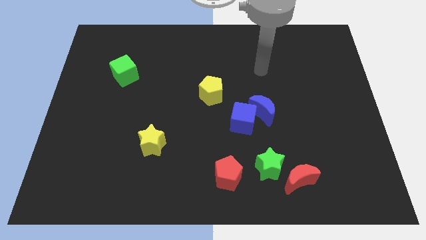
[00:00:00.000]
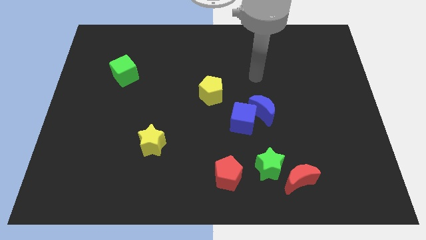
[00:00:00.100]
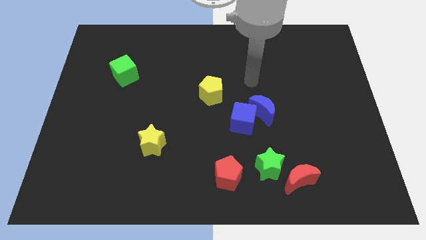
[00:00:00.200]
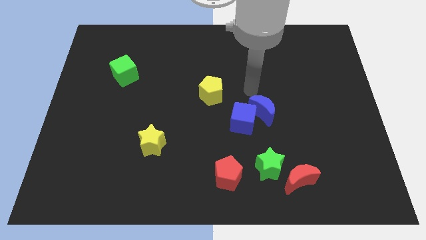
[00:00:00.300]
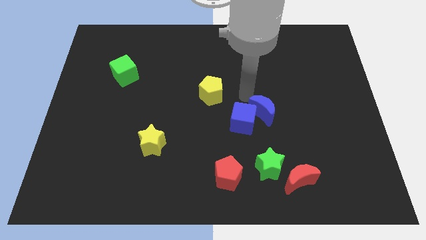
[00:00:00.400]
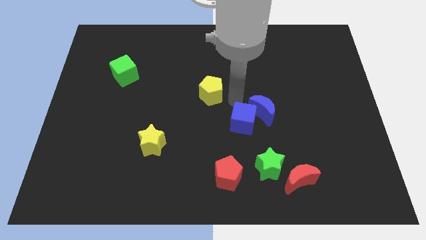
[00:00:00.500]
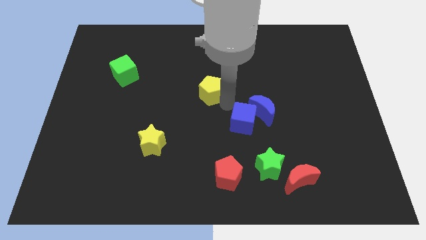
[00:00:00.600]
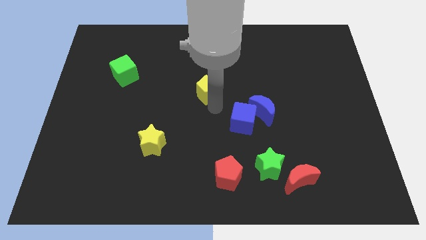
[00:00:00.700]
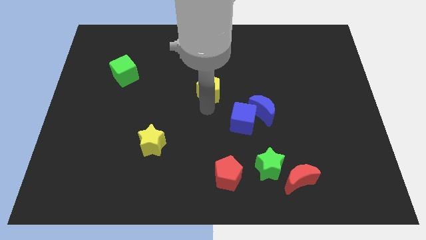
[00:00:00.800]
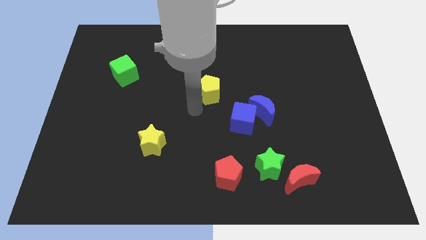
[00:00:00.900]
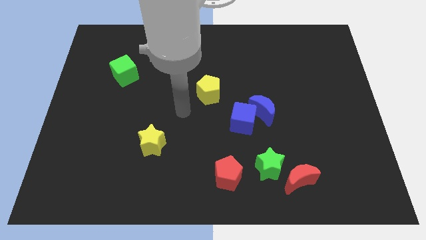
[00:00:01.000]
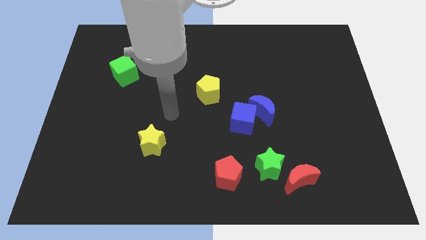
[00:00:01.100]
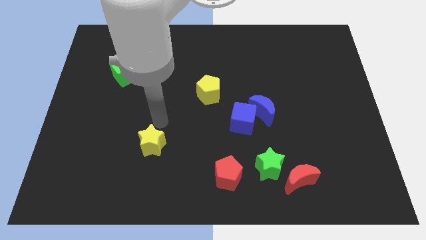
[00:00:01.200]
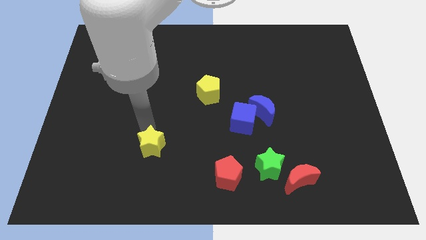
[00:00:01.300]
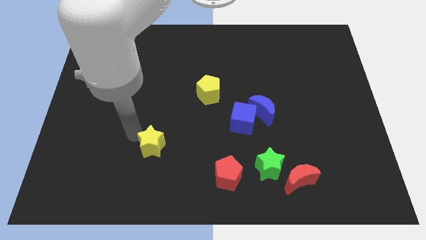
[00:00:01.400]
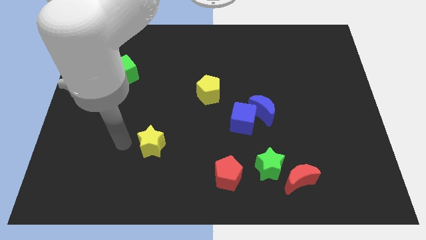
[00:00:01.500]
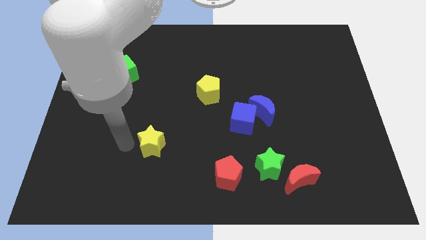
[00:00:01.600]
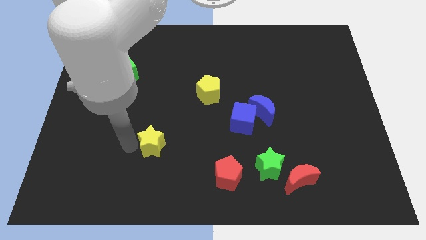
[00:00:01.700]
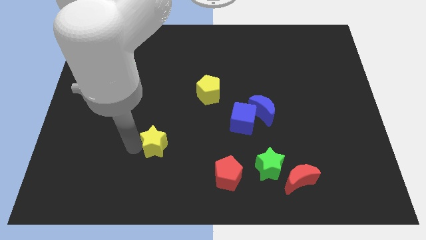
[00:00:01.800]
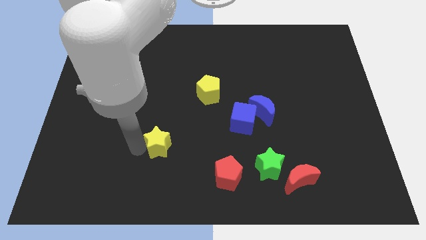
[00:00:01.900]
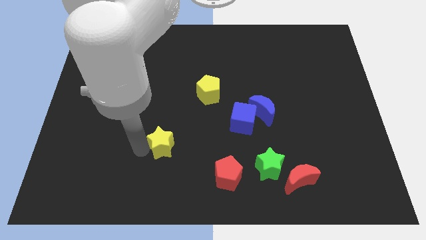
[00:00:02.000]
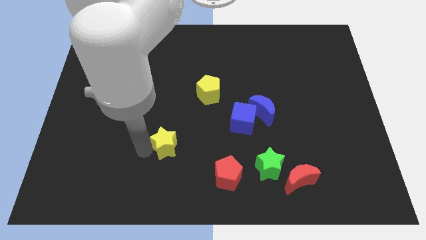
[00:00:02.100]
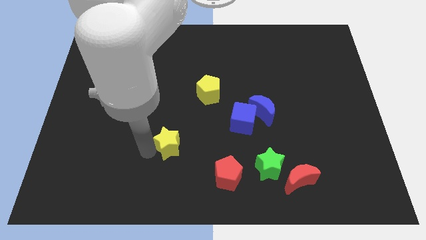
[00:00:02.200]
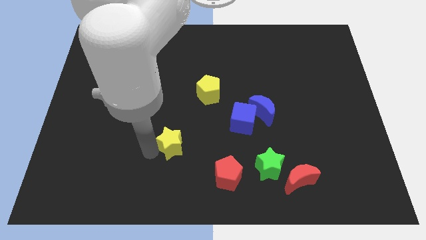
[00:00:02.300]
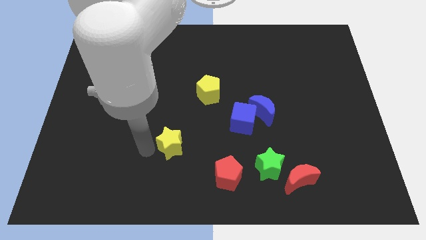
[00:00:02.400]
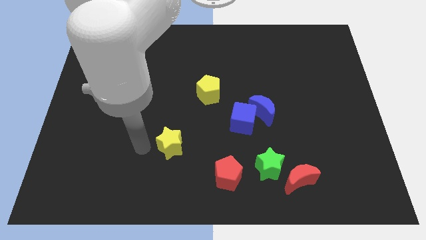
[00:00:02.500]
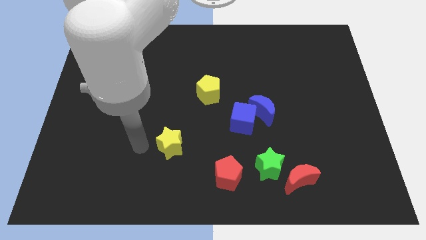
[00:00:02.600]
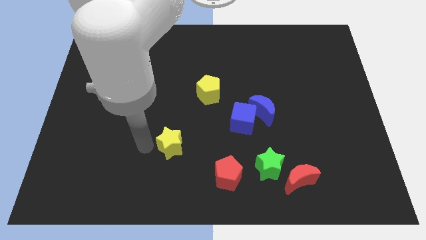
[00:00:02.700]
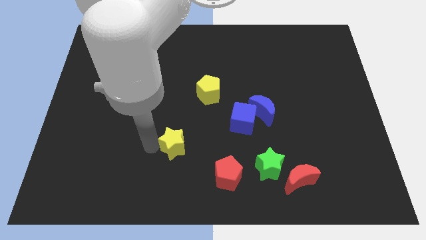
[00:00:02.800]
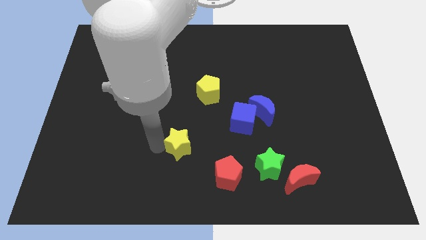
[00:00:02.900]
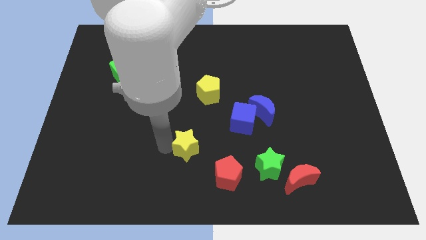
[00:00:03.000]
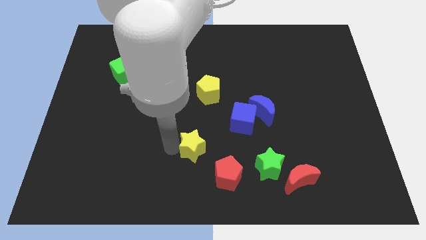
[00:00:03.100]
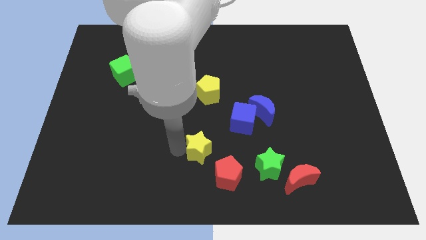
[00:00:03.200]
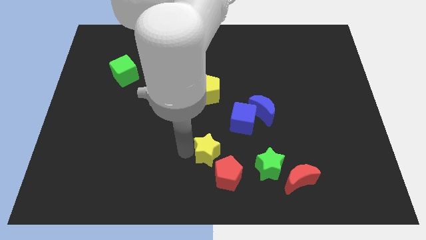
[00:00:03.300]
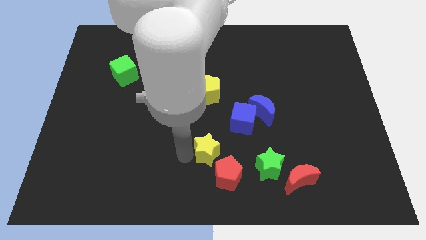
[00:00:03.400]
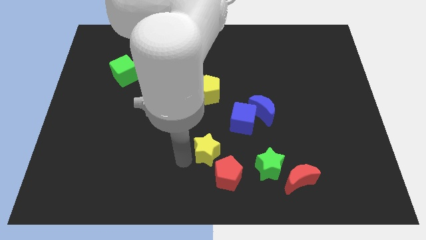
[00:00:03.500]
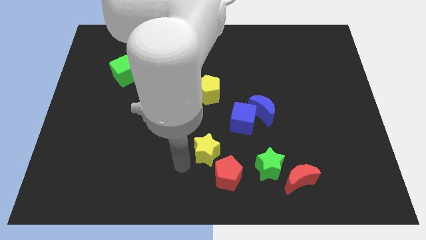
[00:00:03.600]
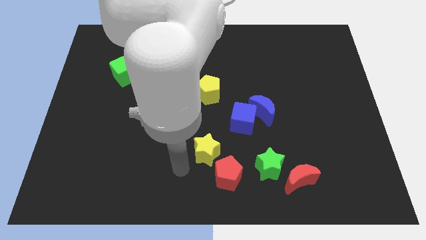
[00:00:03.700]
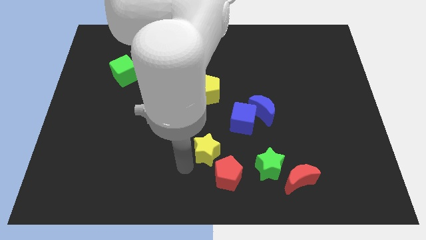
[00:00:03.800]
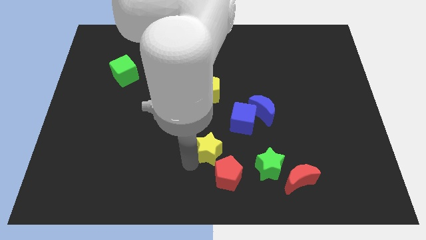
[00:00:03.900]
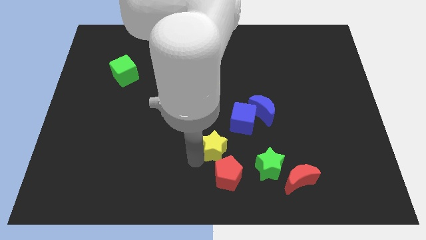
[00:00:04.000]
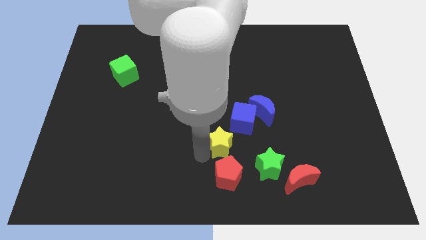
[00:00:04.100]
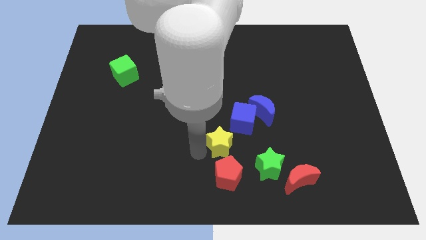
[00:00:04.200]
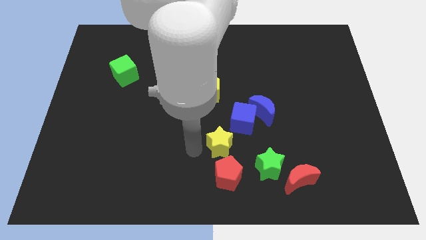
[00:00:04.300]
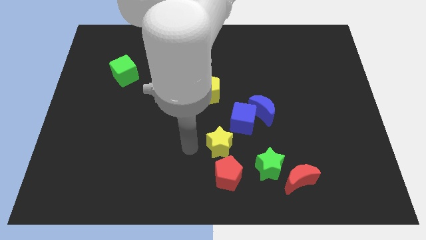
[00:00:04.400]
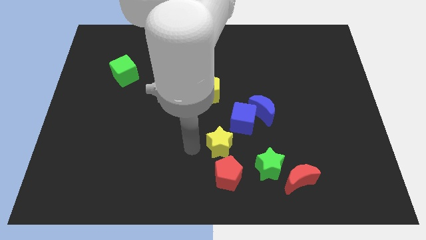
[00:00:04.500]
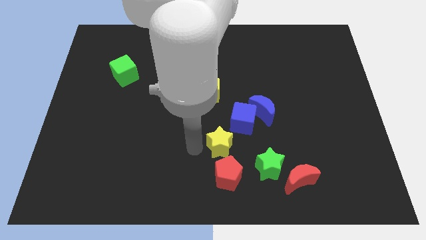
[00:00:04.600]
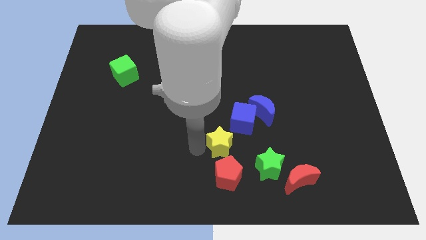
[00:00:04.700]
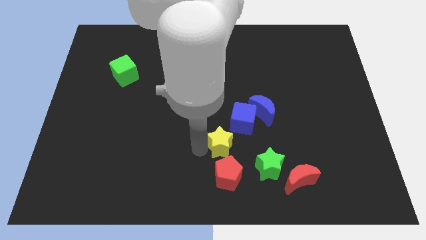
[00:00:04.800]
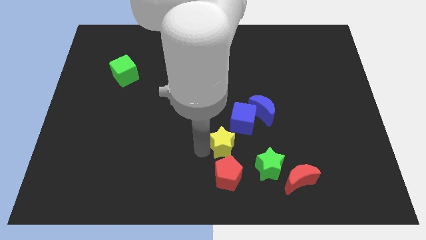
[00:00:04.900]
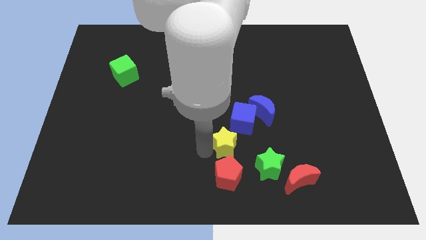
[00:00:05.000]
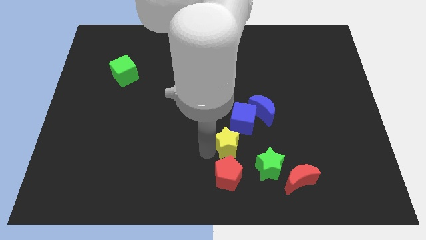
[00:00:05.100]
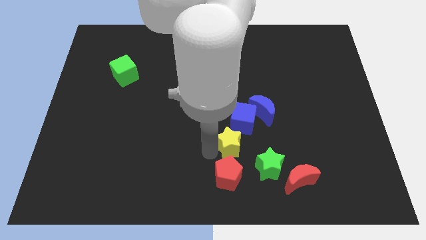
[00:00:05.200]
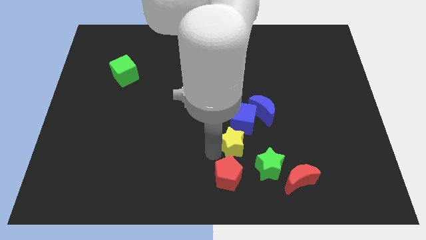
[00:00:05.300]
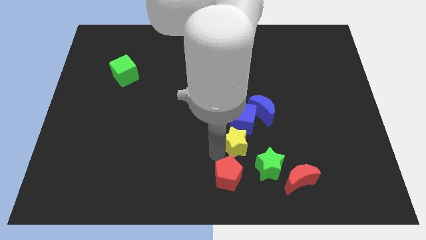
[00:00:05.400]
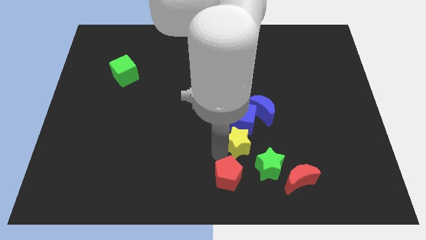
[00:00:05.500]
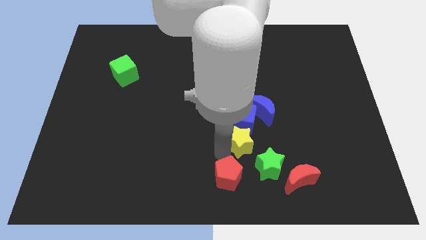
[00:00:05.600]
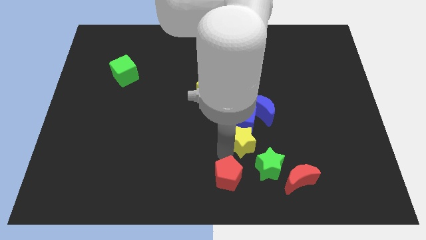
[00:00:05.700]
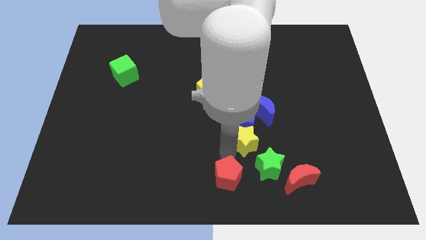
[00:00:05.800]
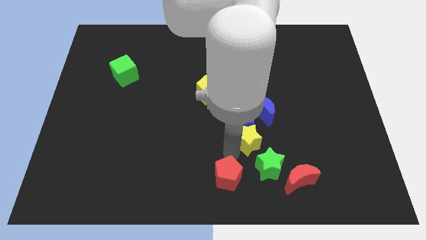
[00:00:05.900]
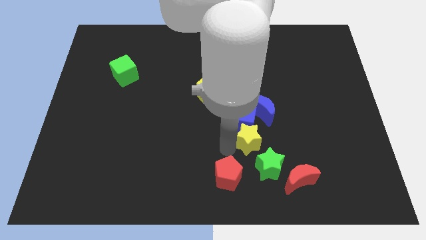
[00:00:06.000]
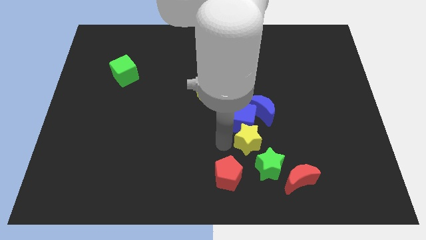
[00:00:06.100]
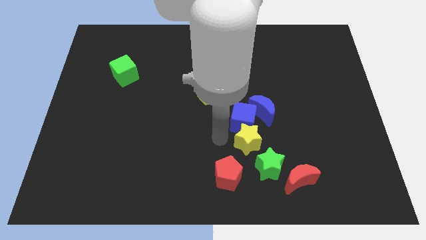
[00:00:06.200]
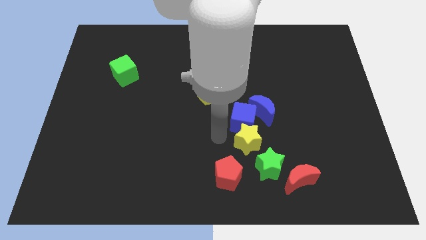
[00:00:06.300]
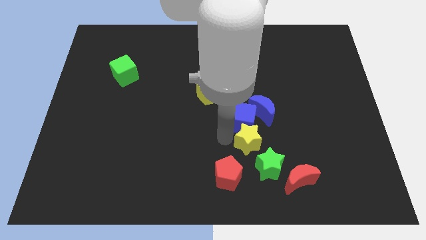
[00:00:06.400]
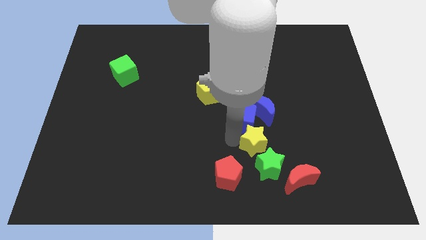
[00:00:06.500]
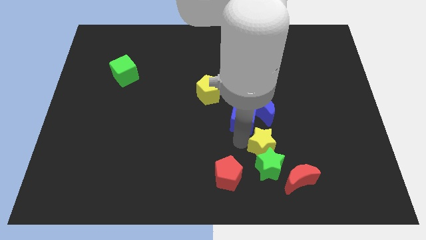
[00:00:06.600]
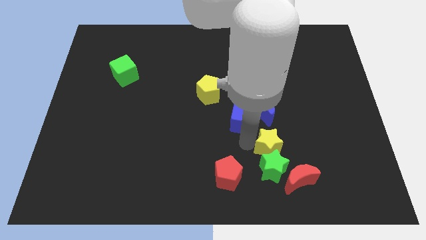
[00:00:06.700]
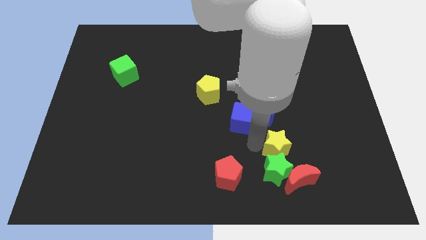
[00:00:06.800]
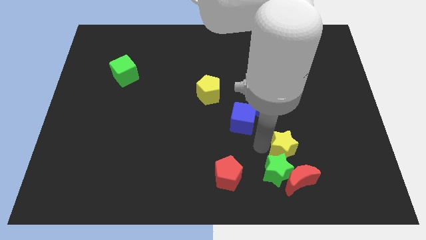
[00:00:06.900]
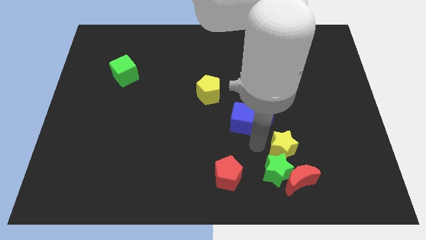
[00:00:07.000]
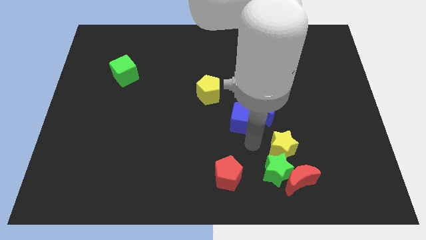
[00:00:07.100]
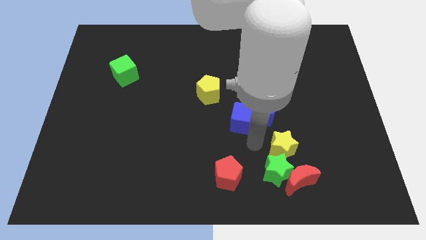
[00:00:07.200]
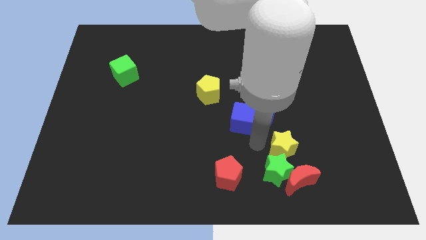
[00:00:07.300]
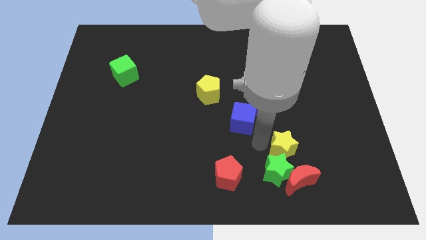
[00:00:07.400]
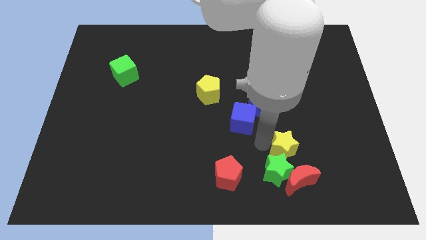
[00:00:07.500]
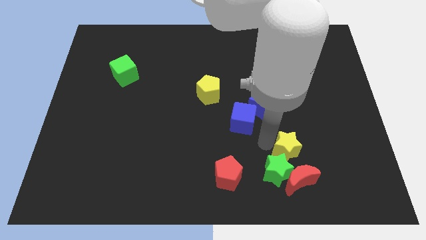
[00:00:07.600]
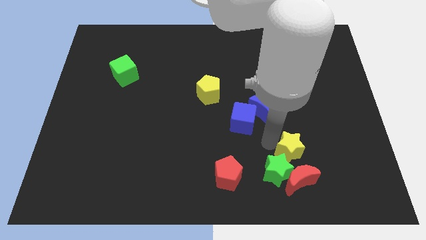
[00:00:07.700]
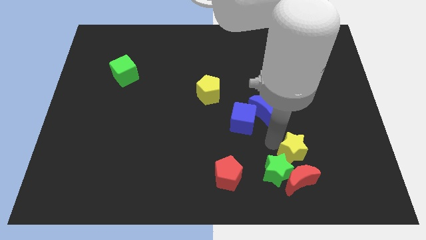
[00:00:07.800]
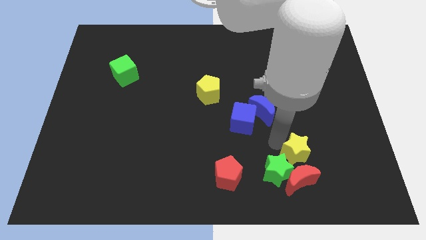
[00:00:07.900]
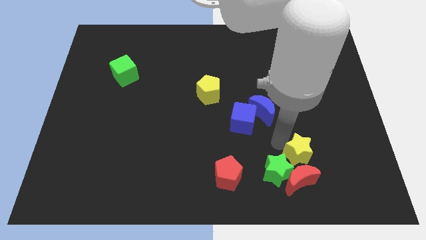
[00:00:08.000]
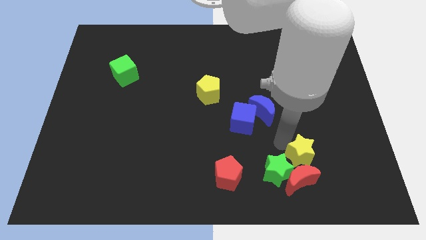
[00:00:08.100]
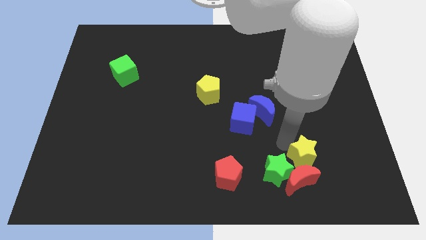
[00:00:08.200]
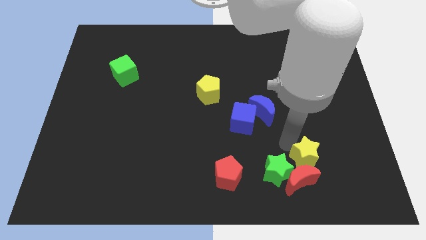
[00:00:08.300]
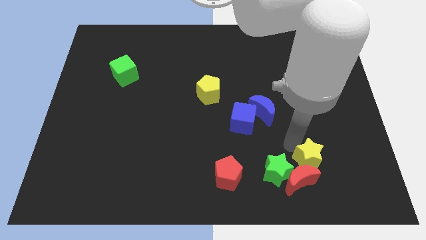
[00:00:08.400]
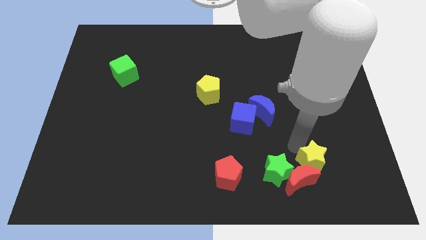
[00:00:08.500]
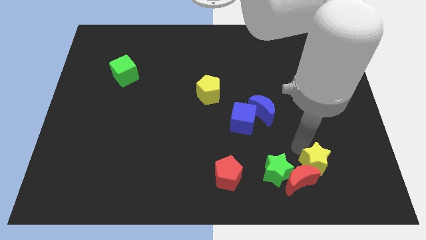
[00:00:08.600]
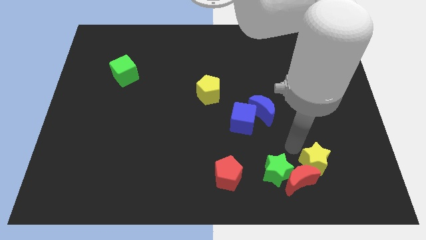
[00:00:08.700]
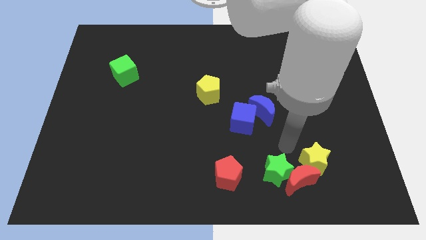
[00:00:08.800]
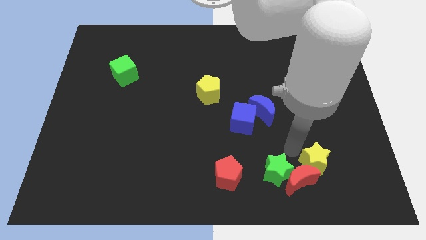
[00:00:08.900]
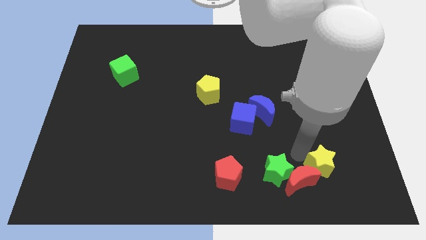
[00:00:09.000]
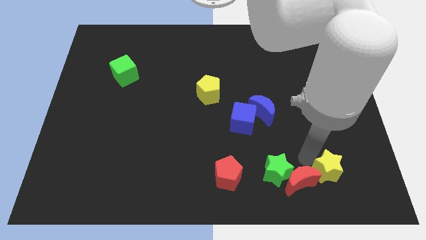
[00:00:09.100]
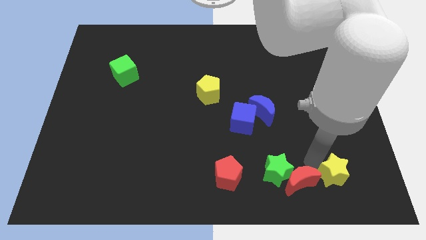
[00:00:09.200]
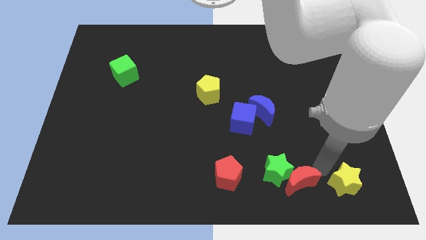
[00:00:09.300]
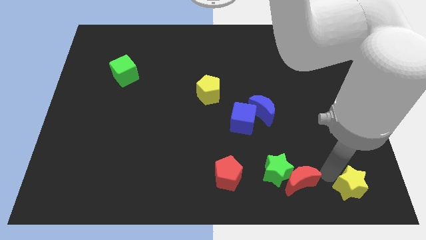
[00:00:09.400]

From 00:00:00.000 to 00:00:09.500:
push the yellow star to the bottom right corner
